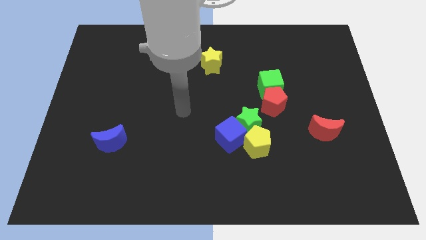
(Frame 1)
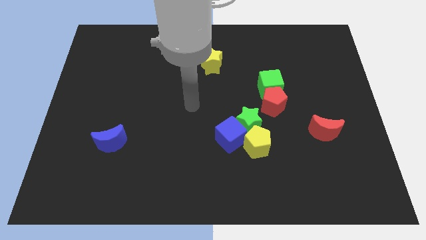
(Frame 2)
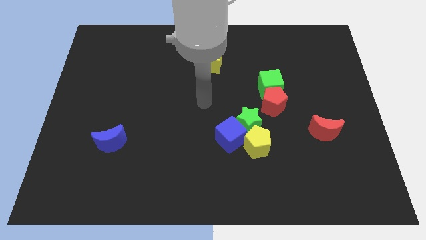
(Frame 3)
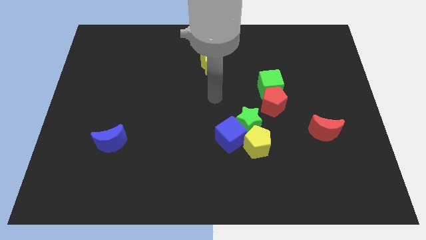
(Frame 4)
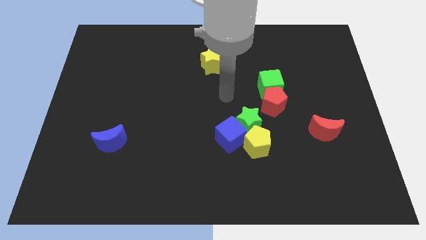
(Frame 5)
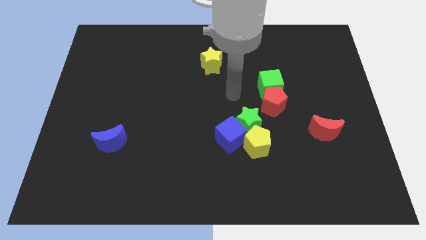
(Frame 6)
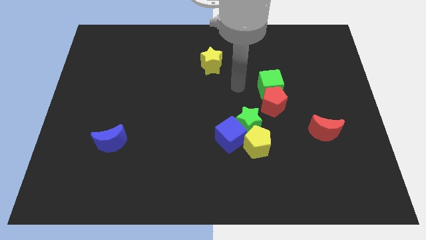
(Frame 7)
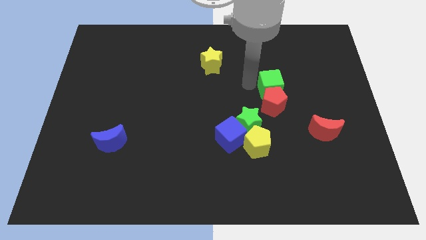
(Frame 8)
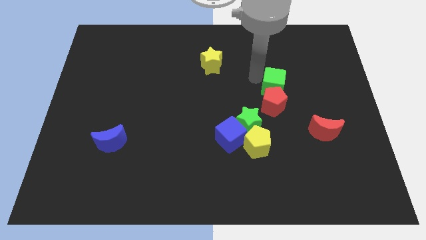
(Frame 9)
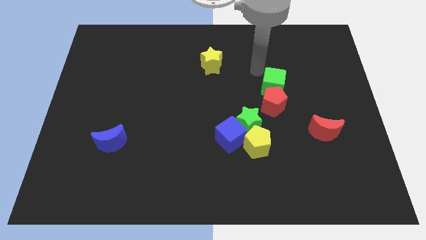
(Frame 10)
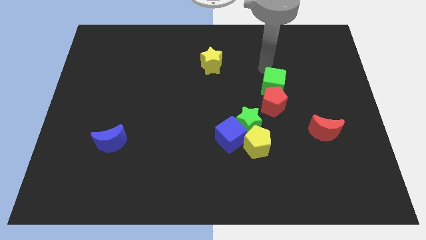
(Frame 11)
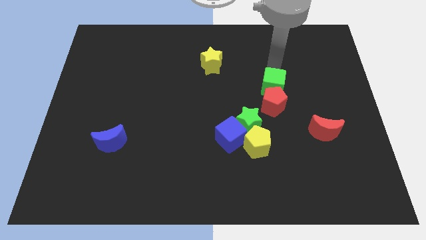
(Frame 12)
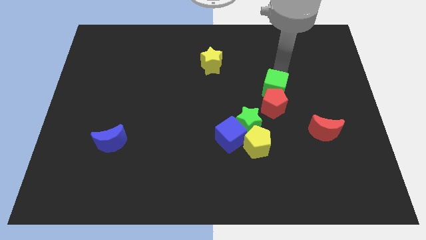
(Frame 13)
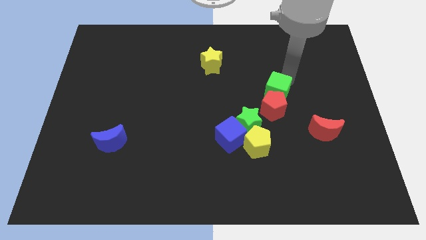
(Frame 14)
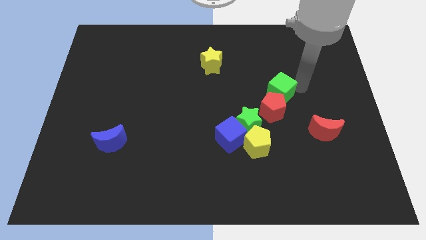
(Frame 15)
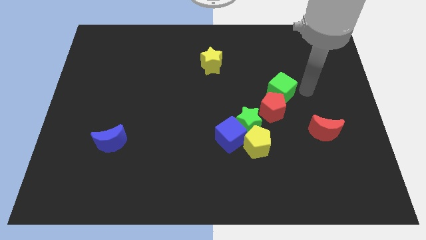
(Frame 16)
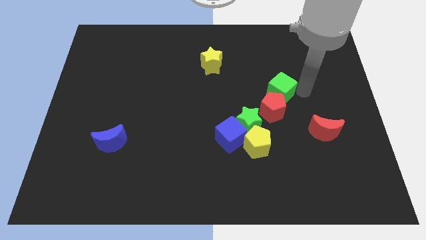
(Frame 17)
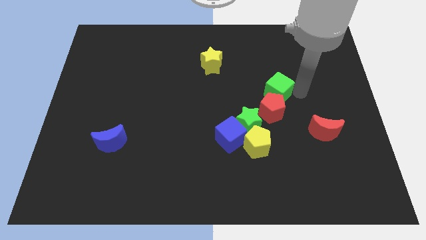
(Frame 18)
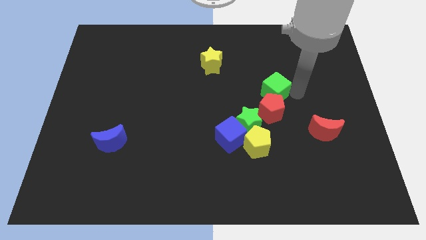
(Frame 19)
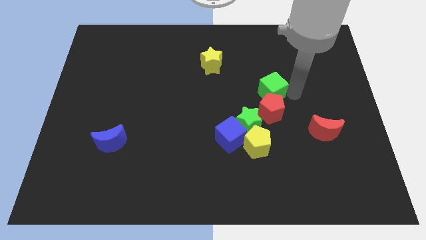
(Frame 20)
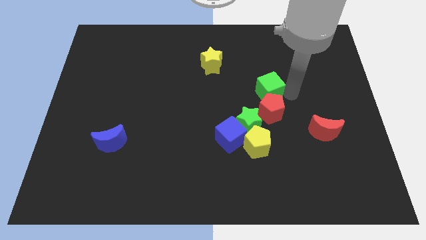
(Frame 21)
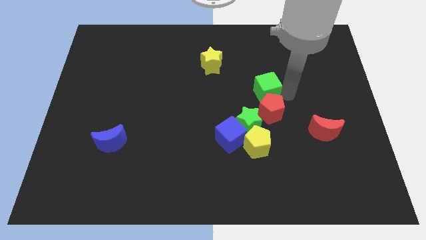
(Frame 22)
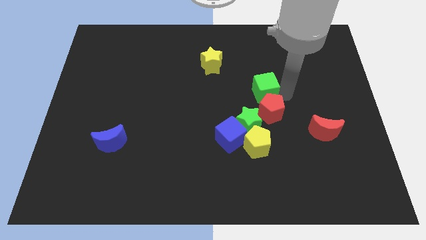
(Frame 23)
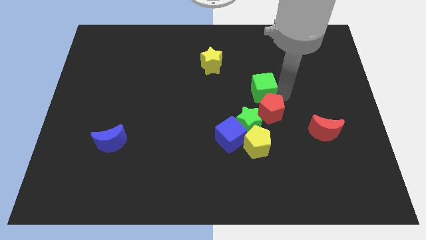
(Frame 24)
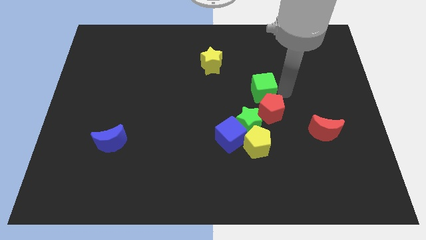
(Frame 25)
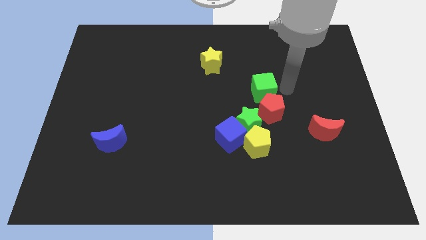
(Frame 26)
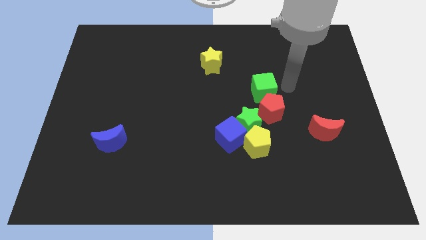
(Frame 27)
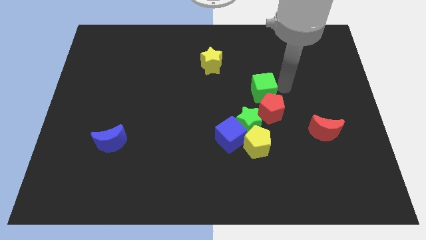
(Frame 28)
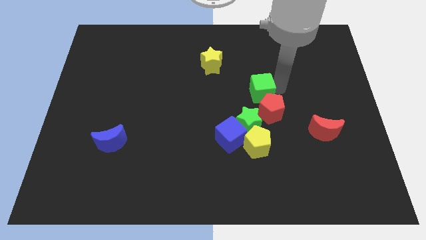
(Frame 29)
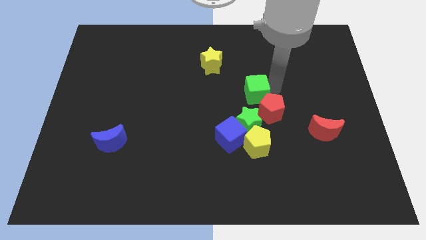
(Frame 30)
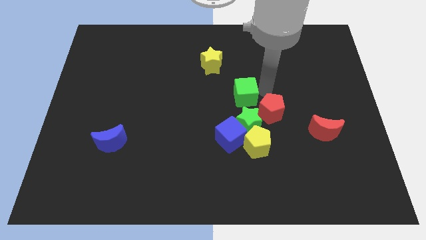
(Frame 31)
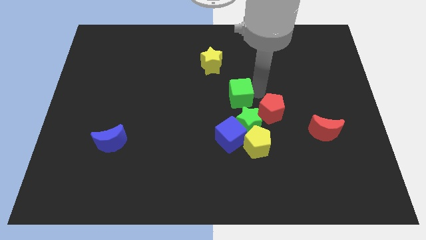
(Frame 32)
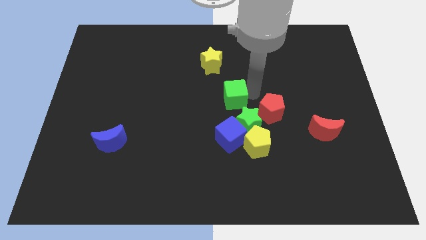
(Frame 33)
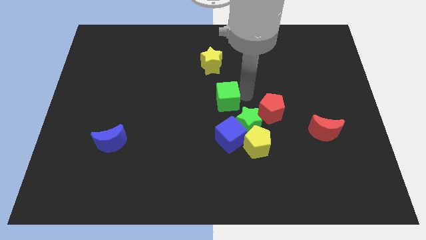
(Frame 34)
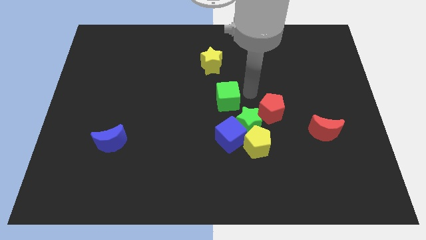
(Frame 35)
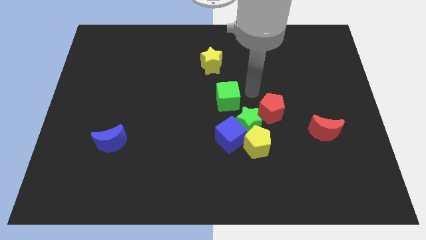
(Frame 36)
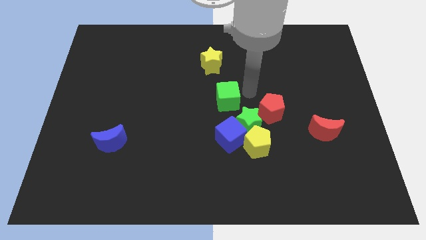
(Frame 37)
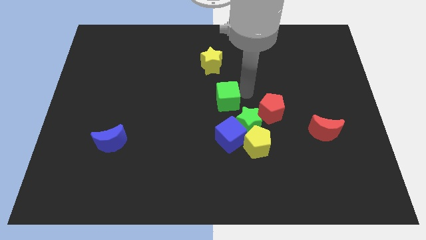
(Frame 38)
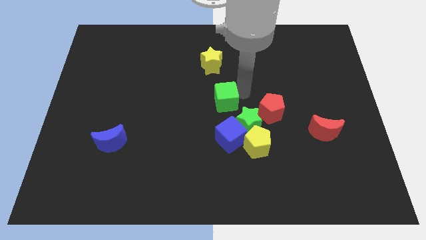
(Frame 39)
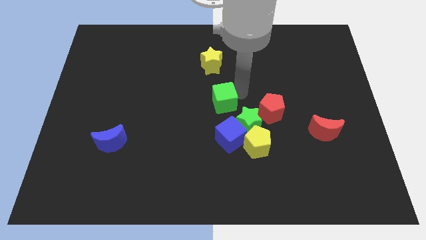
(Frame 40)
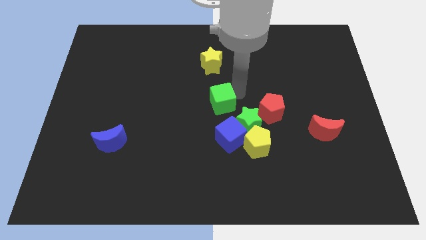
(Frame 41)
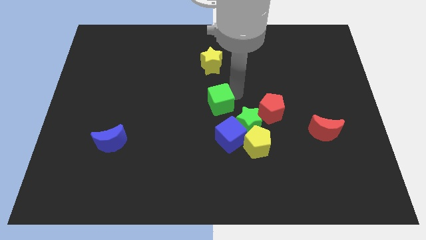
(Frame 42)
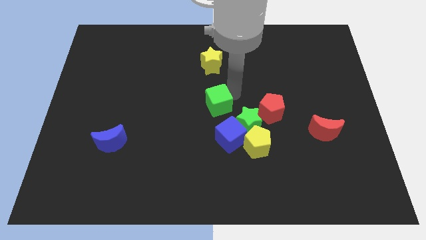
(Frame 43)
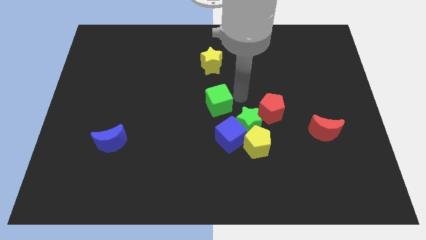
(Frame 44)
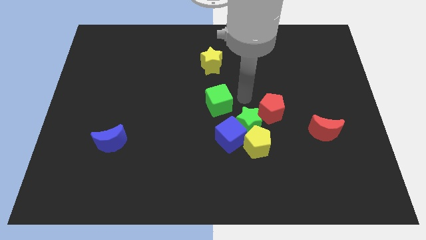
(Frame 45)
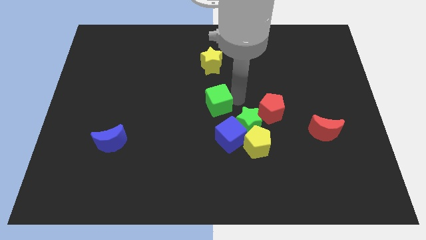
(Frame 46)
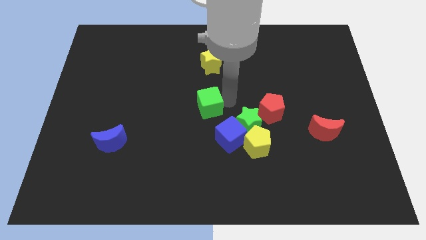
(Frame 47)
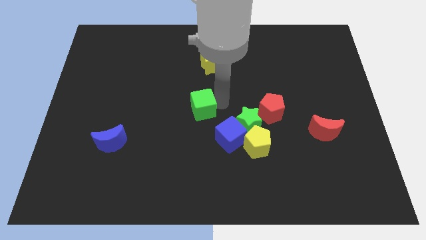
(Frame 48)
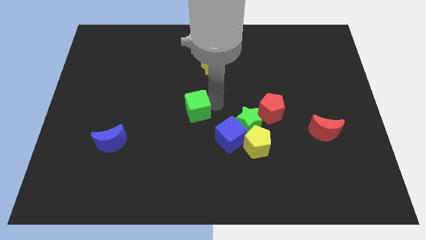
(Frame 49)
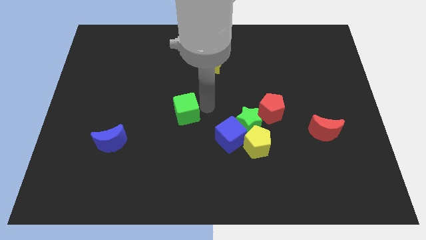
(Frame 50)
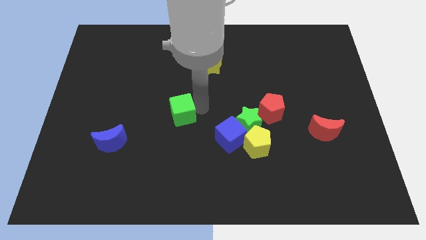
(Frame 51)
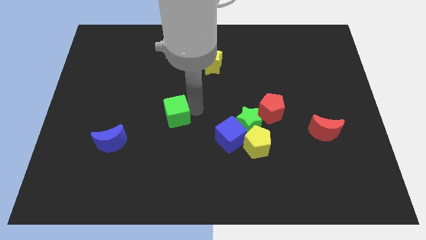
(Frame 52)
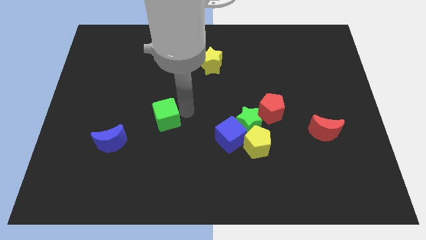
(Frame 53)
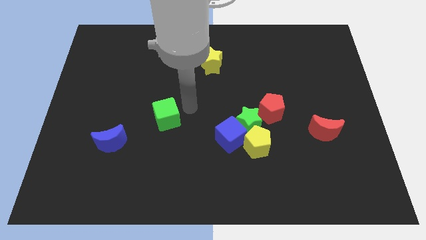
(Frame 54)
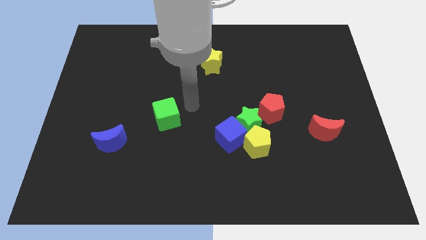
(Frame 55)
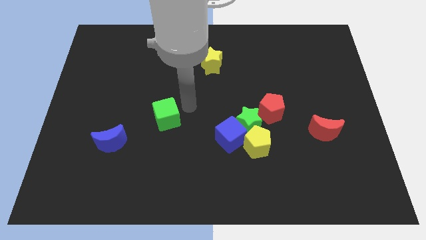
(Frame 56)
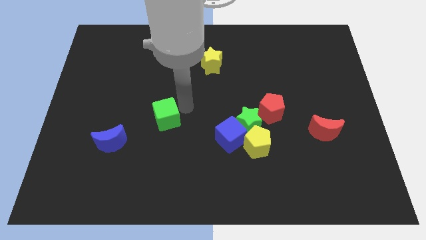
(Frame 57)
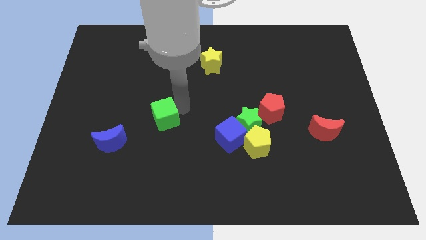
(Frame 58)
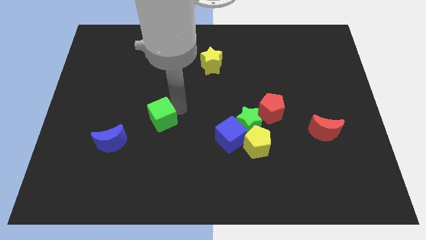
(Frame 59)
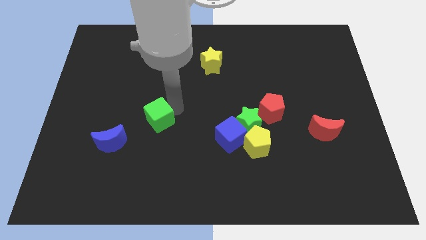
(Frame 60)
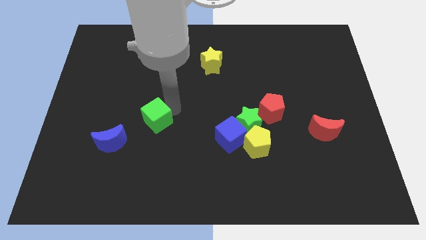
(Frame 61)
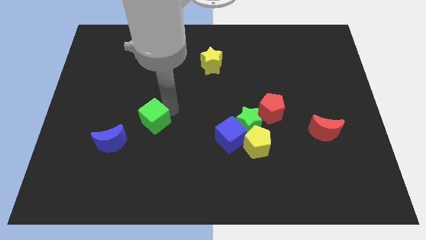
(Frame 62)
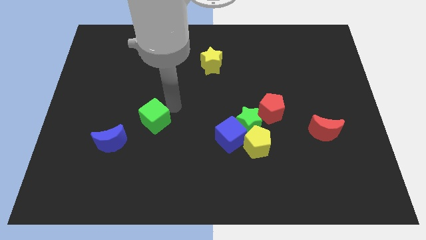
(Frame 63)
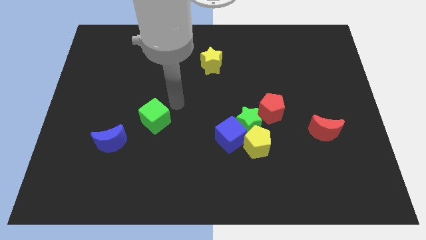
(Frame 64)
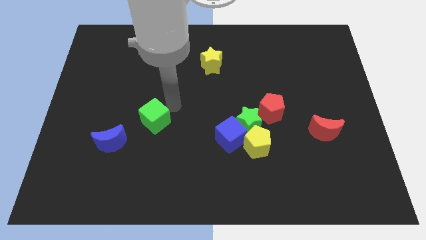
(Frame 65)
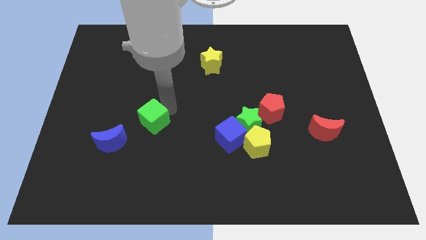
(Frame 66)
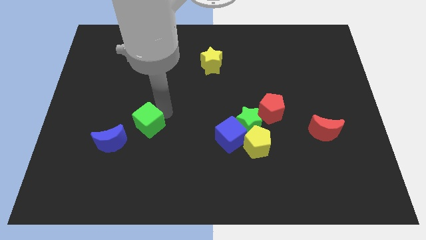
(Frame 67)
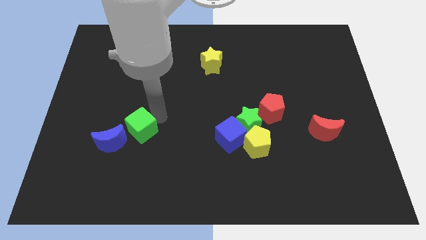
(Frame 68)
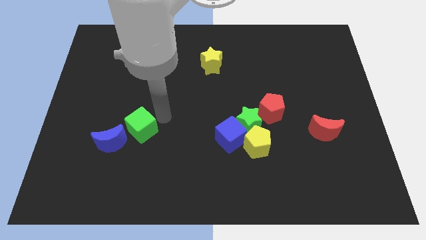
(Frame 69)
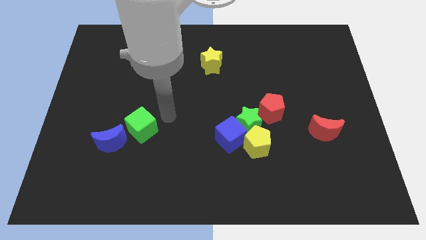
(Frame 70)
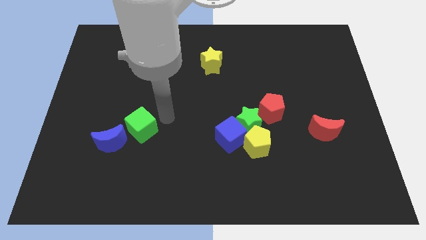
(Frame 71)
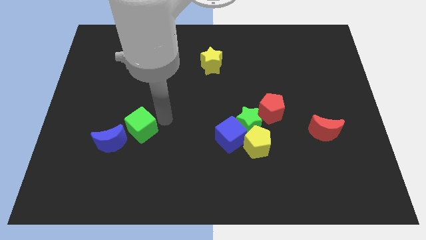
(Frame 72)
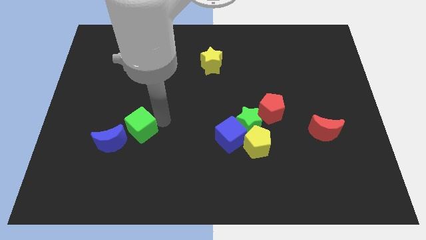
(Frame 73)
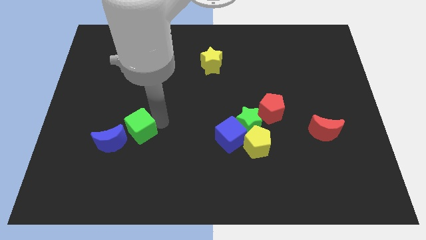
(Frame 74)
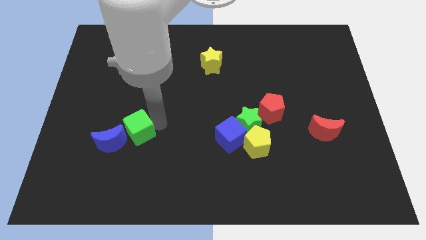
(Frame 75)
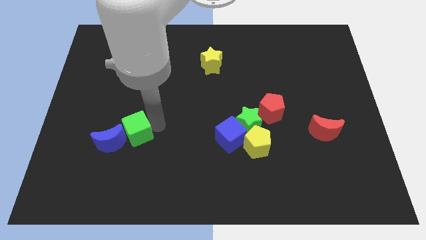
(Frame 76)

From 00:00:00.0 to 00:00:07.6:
slide the green cube close to the blue moon

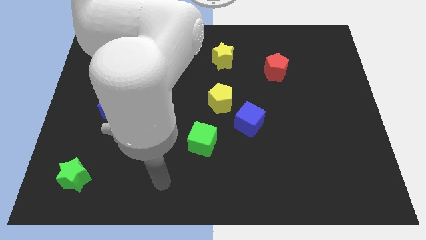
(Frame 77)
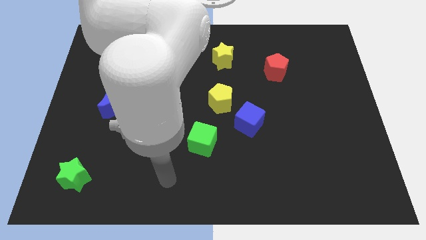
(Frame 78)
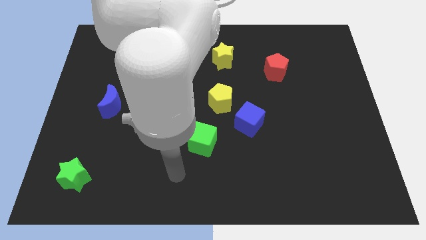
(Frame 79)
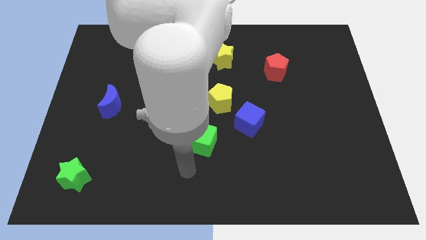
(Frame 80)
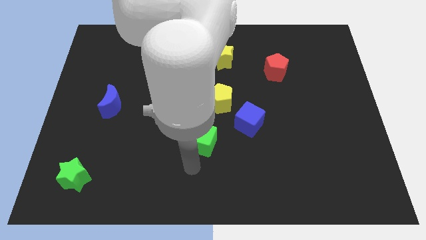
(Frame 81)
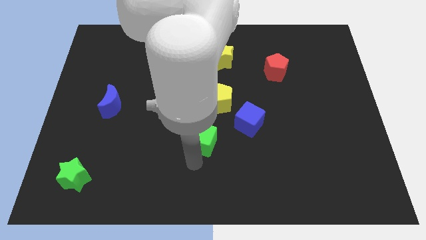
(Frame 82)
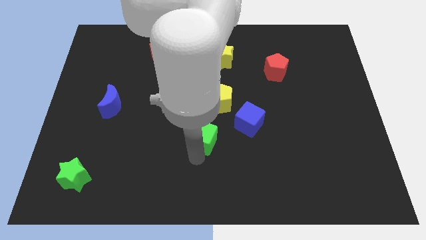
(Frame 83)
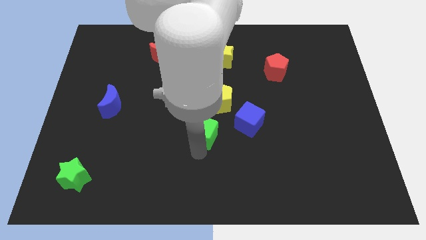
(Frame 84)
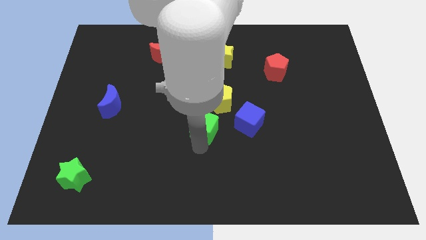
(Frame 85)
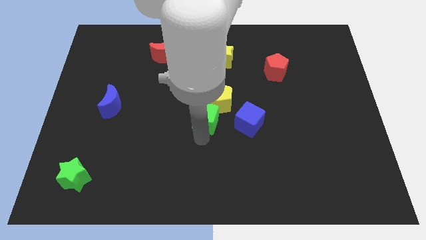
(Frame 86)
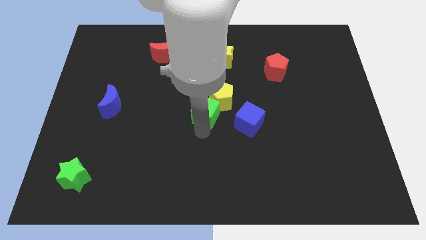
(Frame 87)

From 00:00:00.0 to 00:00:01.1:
push the green cube next to the yellow pentagon
